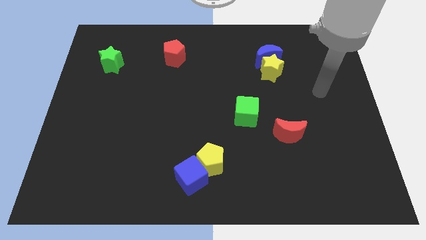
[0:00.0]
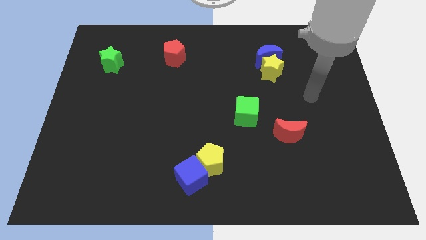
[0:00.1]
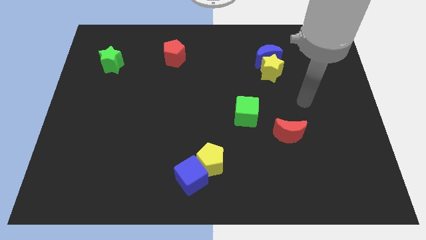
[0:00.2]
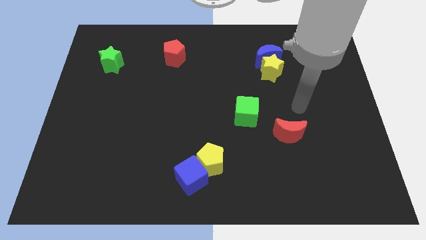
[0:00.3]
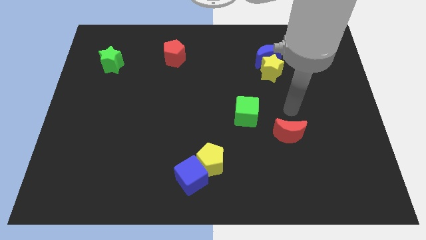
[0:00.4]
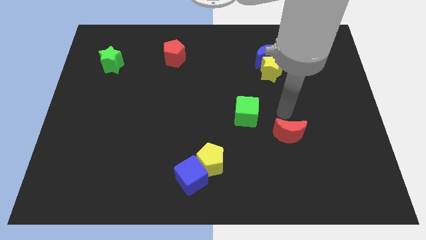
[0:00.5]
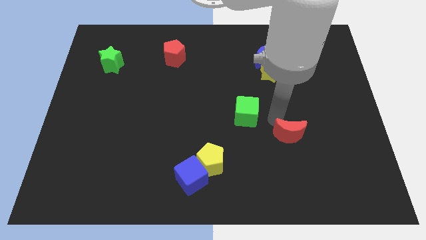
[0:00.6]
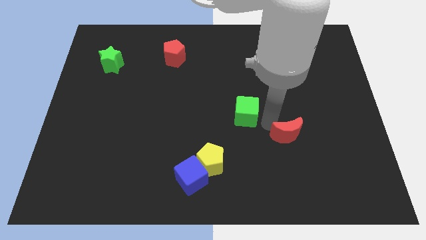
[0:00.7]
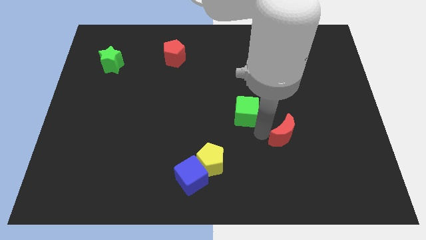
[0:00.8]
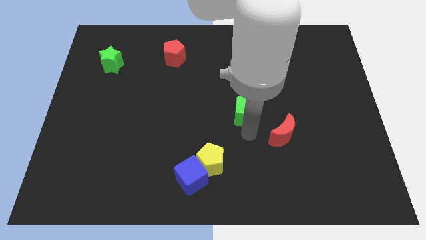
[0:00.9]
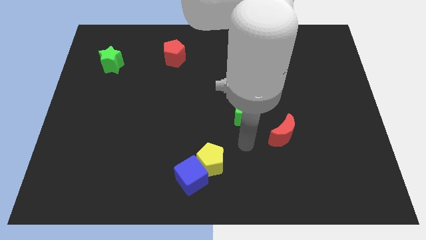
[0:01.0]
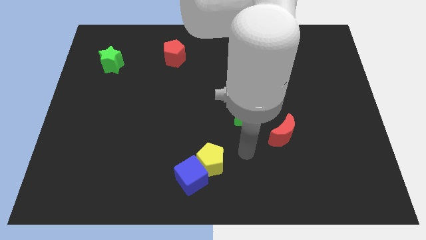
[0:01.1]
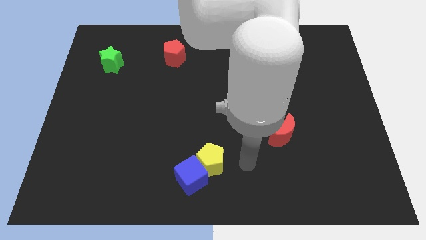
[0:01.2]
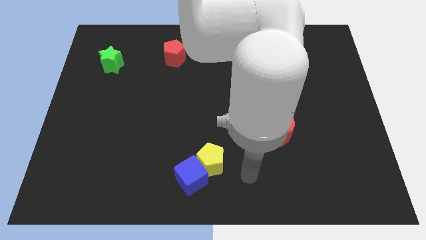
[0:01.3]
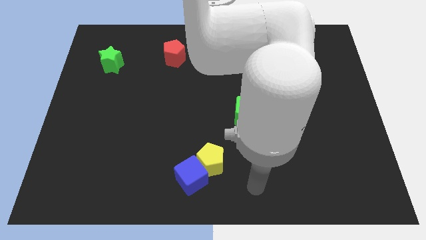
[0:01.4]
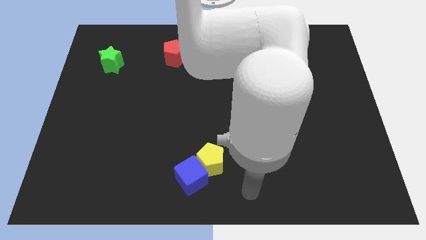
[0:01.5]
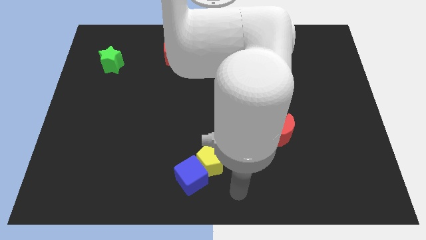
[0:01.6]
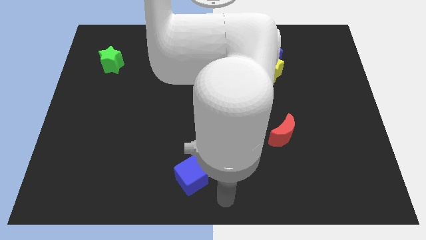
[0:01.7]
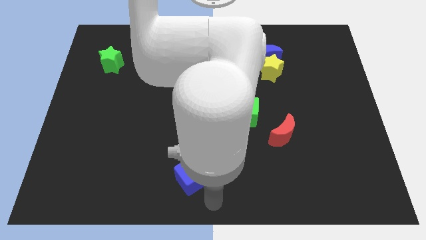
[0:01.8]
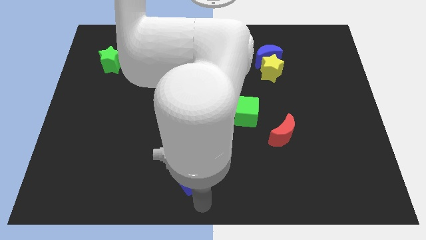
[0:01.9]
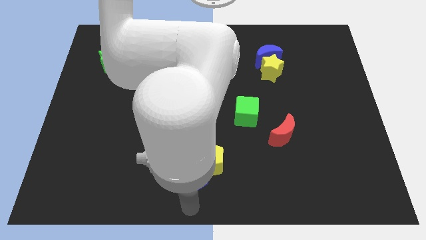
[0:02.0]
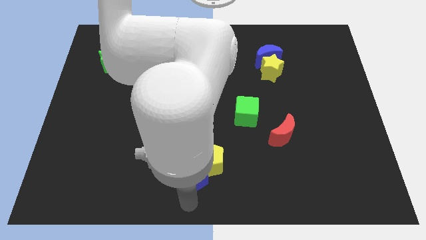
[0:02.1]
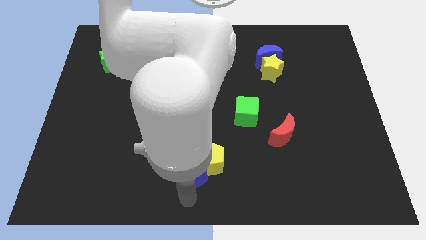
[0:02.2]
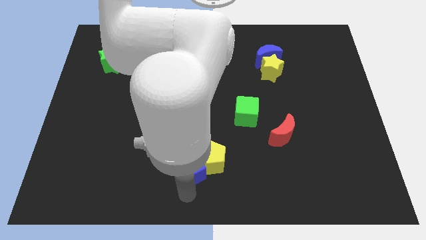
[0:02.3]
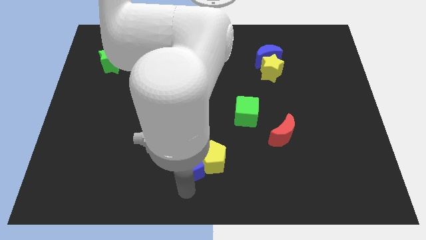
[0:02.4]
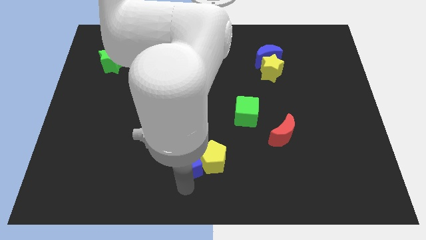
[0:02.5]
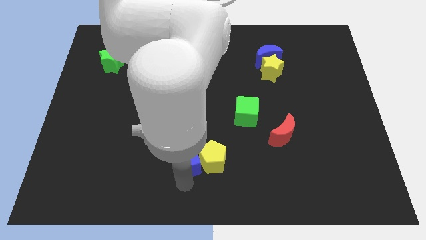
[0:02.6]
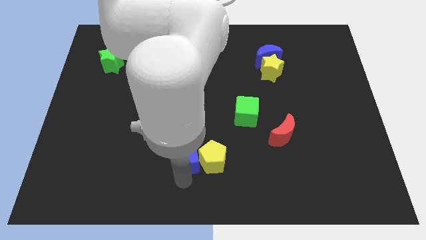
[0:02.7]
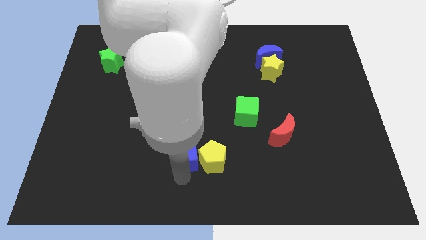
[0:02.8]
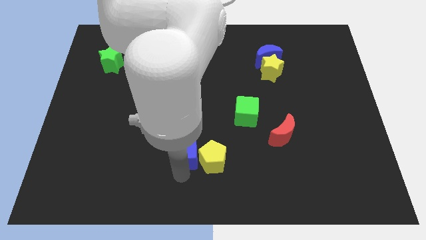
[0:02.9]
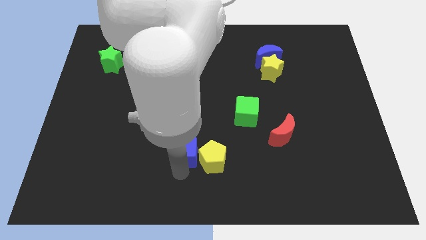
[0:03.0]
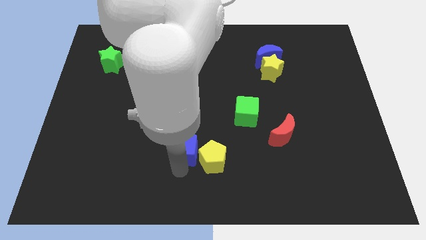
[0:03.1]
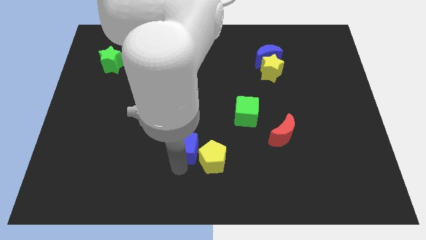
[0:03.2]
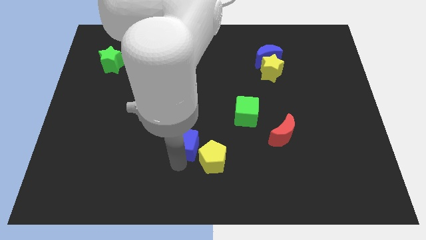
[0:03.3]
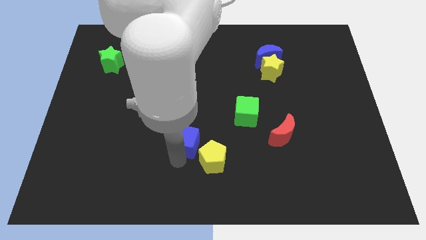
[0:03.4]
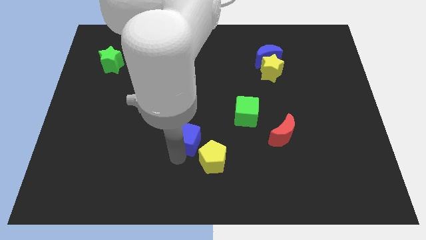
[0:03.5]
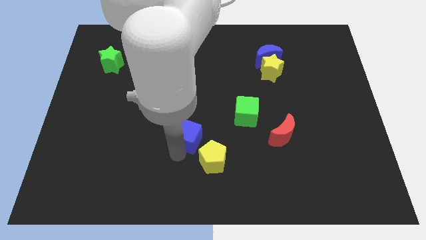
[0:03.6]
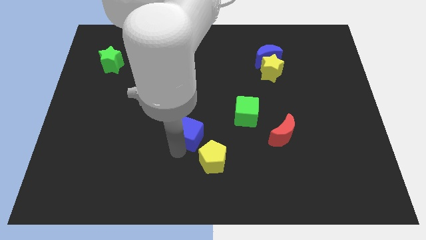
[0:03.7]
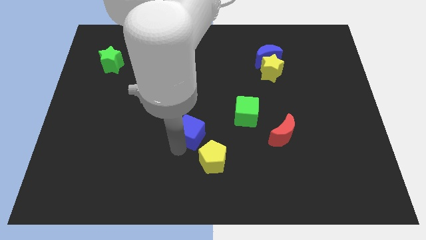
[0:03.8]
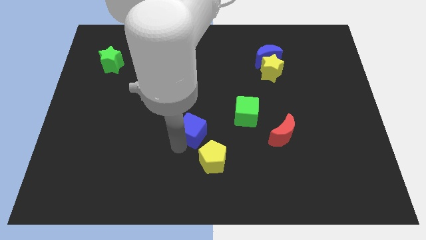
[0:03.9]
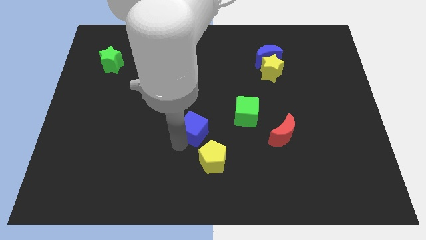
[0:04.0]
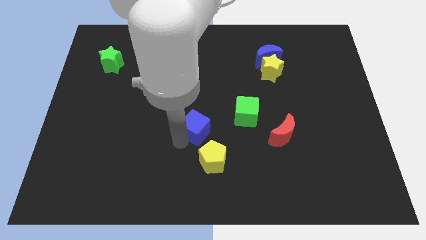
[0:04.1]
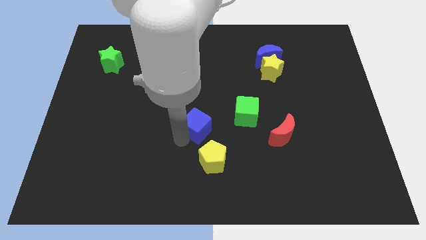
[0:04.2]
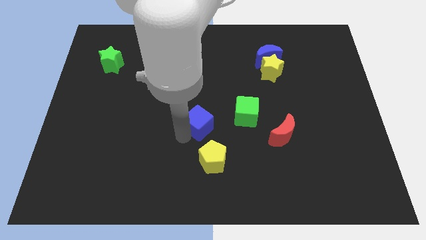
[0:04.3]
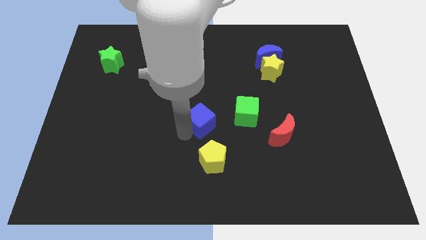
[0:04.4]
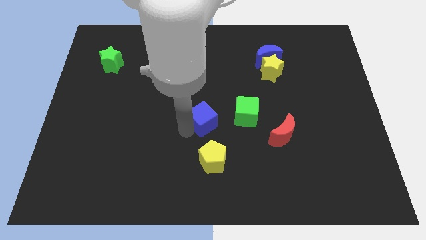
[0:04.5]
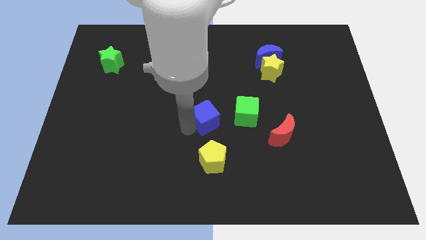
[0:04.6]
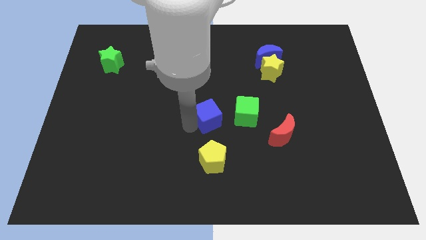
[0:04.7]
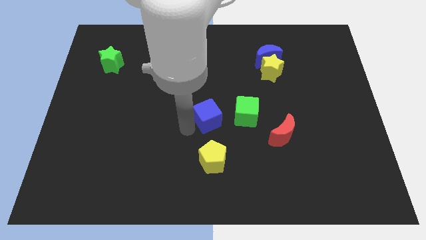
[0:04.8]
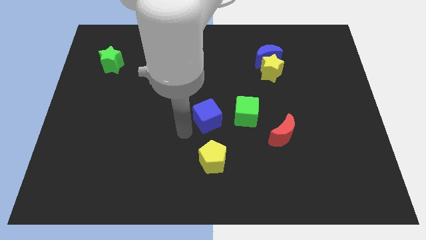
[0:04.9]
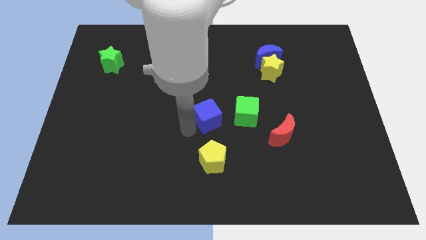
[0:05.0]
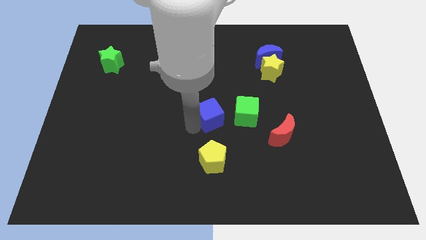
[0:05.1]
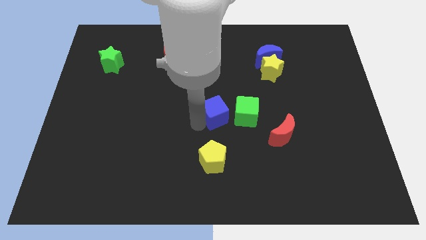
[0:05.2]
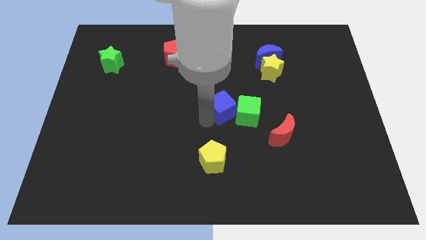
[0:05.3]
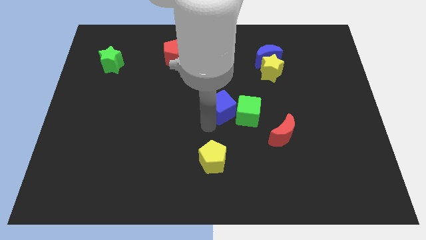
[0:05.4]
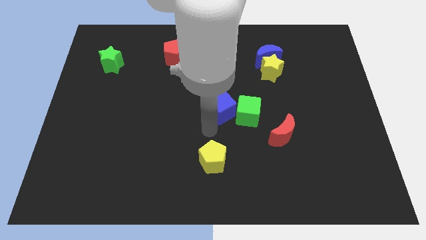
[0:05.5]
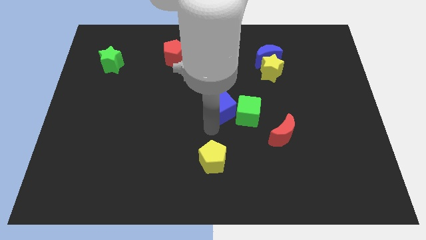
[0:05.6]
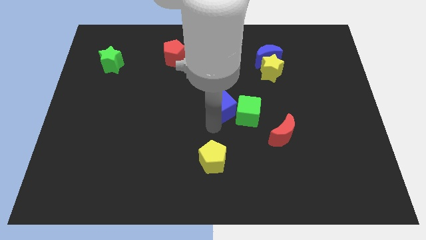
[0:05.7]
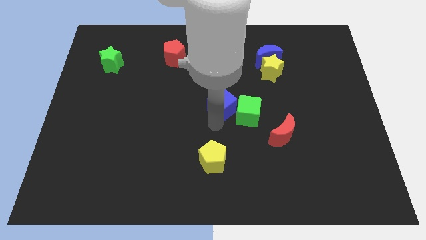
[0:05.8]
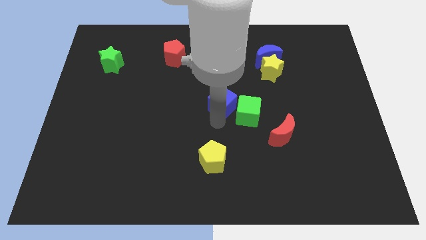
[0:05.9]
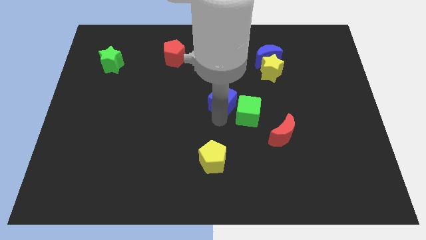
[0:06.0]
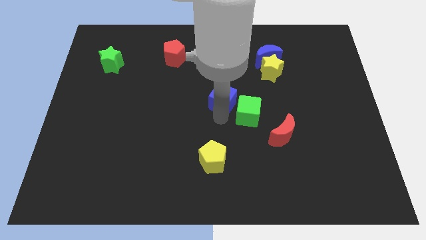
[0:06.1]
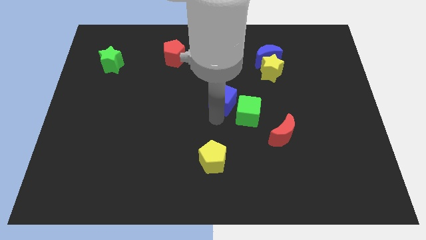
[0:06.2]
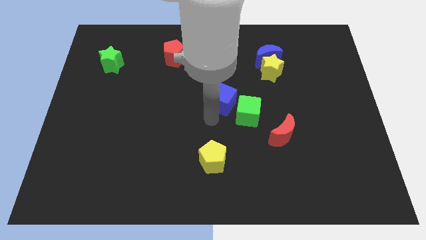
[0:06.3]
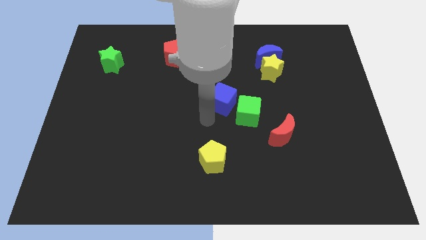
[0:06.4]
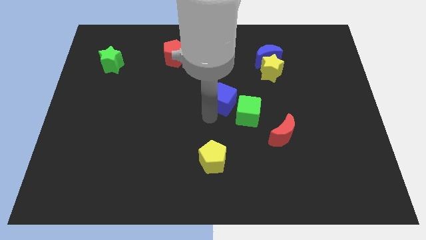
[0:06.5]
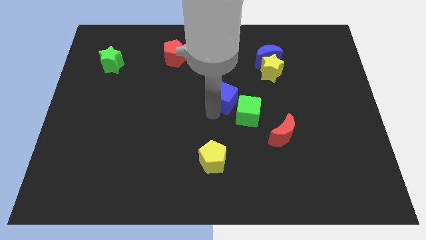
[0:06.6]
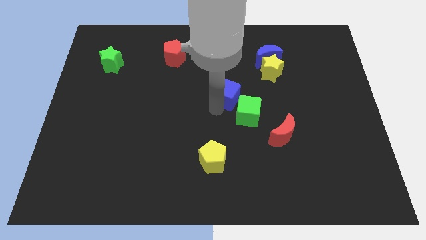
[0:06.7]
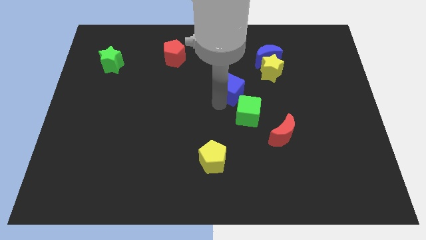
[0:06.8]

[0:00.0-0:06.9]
slide the blue cube diagonally down and to the left of the yellow star
